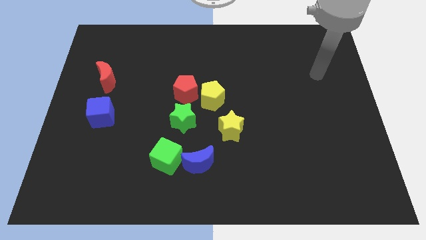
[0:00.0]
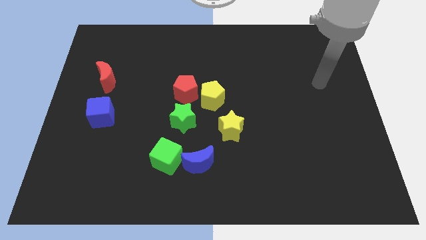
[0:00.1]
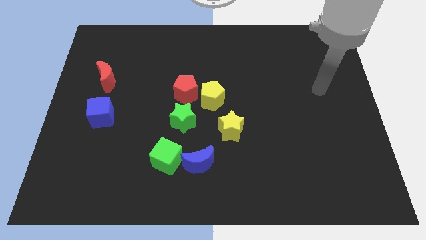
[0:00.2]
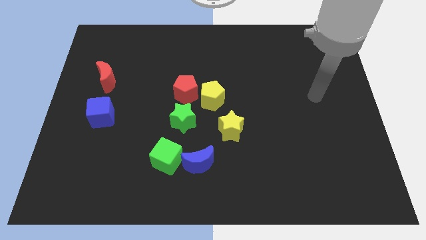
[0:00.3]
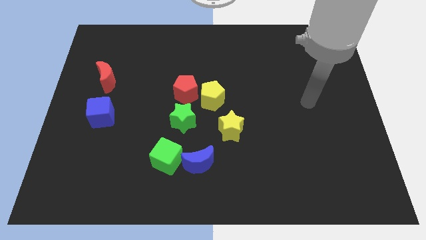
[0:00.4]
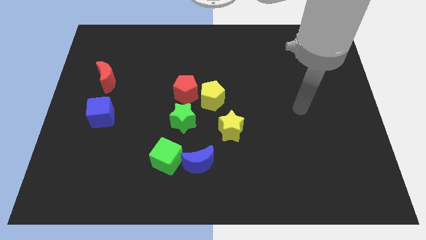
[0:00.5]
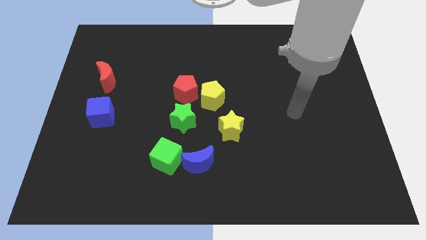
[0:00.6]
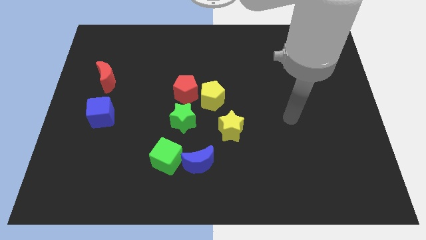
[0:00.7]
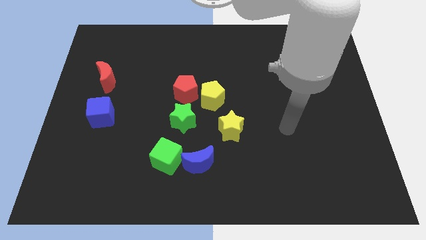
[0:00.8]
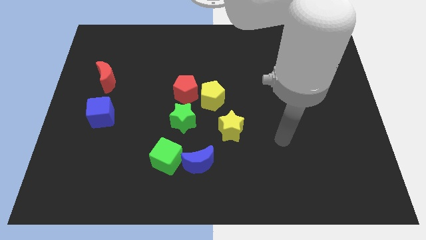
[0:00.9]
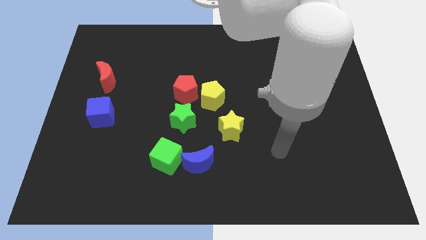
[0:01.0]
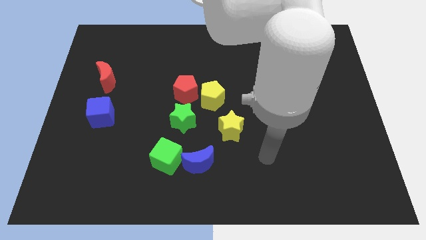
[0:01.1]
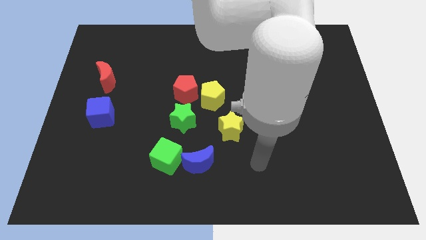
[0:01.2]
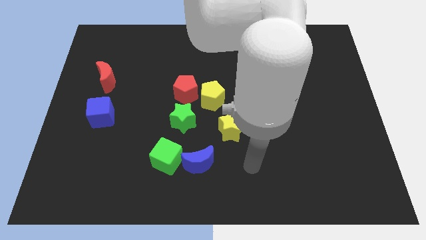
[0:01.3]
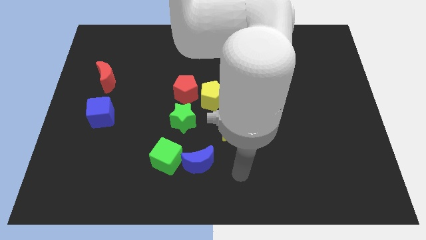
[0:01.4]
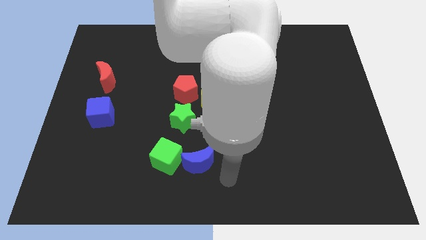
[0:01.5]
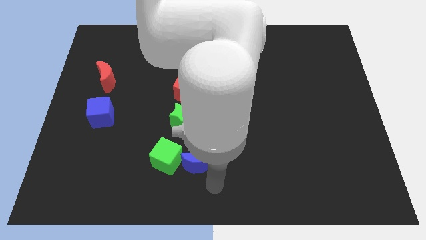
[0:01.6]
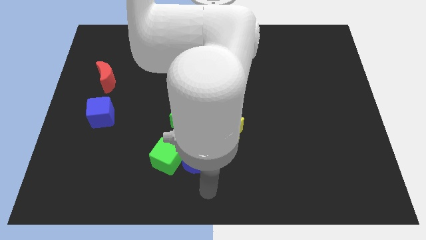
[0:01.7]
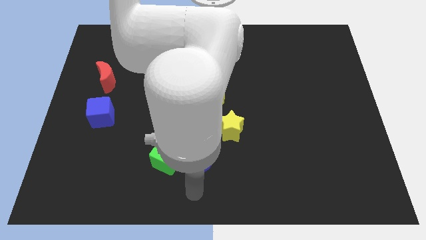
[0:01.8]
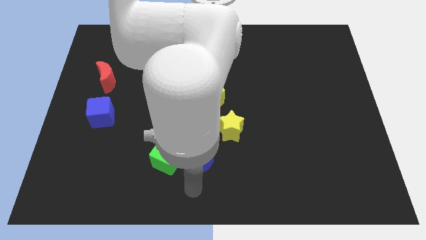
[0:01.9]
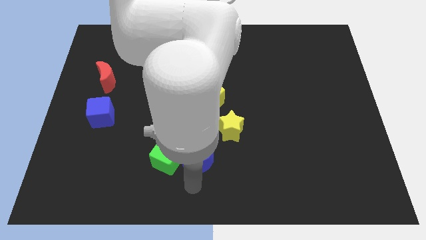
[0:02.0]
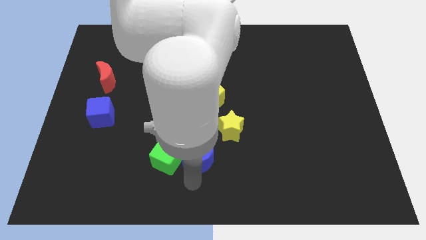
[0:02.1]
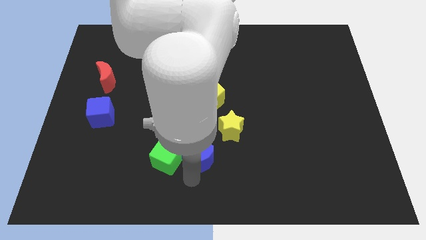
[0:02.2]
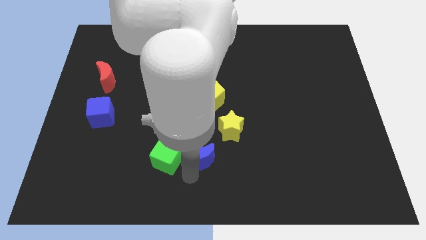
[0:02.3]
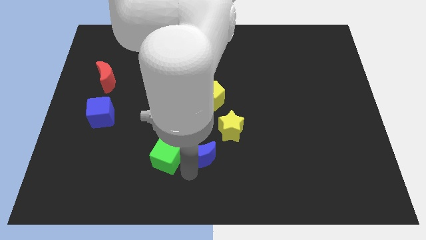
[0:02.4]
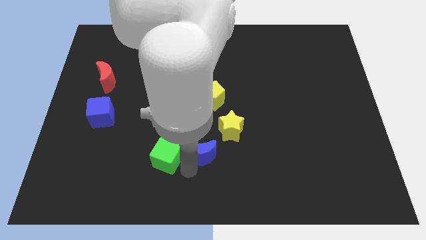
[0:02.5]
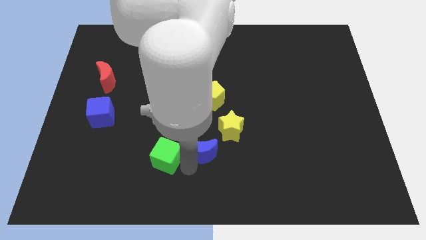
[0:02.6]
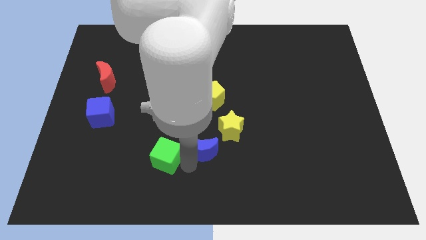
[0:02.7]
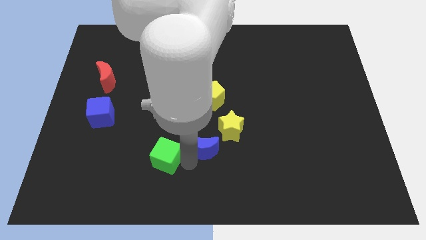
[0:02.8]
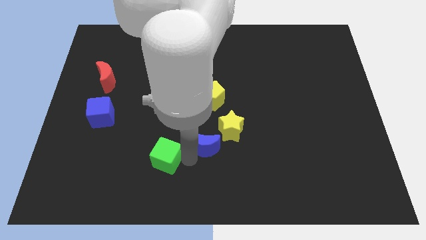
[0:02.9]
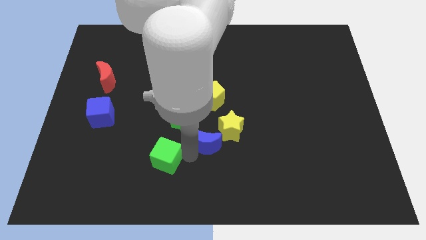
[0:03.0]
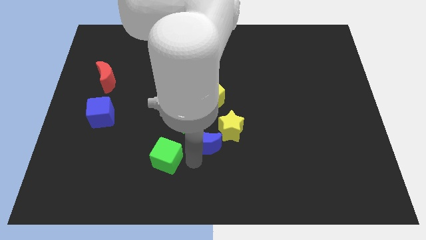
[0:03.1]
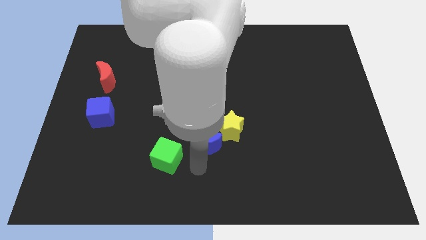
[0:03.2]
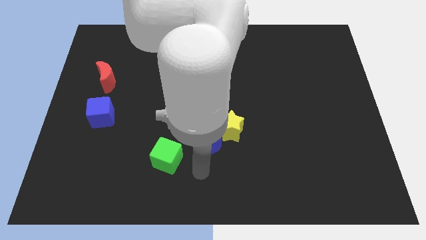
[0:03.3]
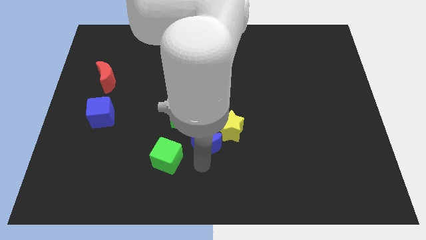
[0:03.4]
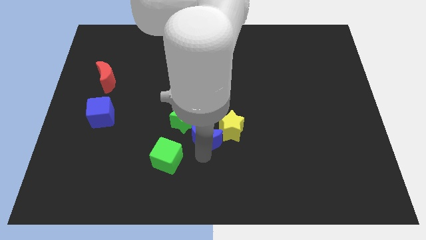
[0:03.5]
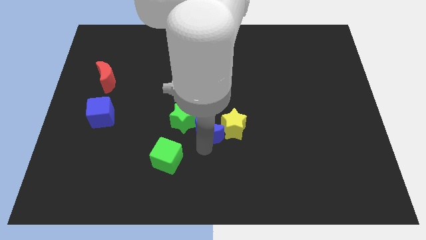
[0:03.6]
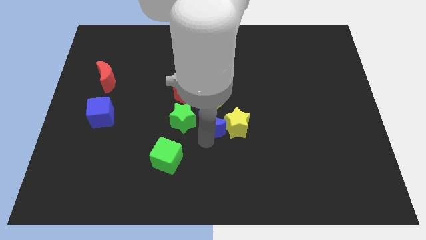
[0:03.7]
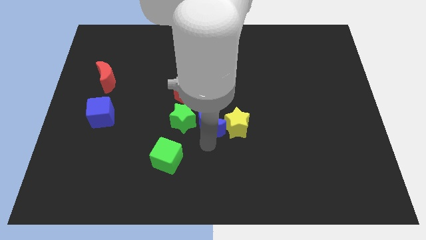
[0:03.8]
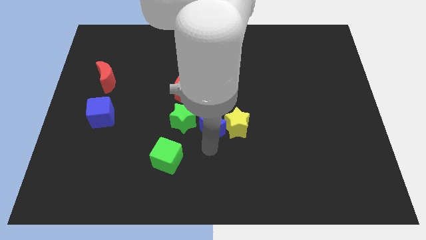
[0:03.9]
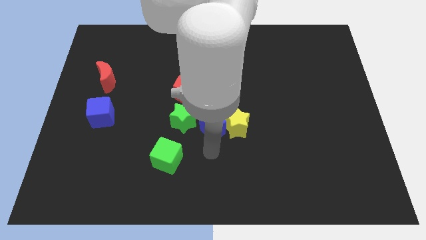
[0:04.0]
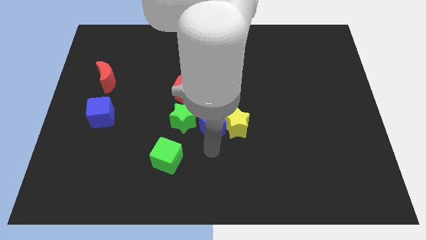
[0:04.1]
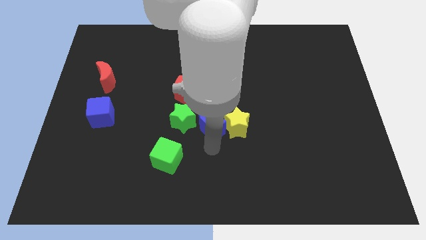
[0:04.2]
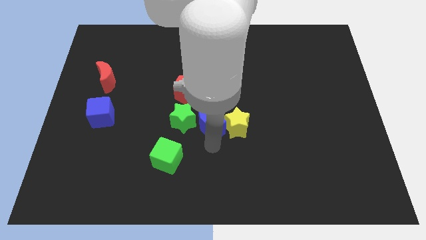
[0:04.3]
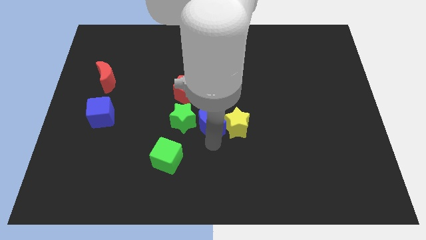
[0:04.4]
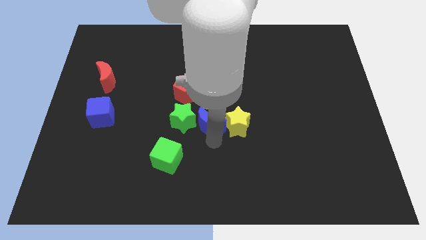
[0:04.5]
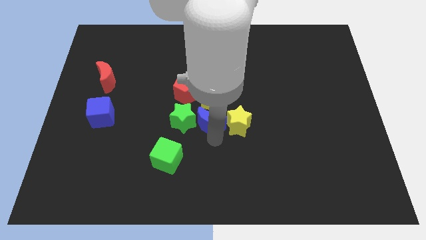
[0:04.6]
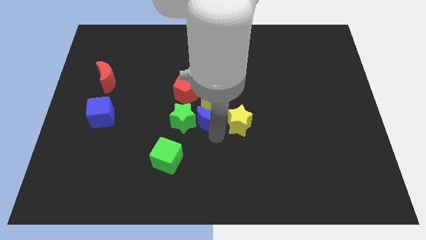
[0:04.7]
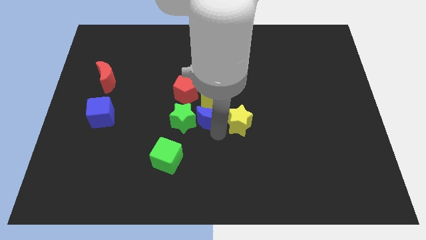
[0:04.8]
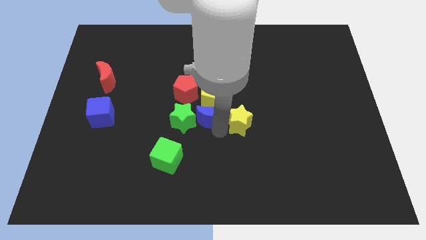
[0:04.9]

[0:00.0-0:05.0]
push the blue moon next to the yellow pentagon

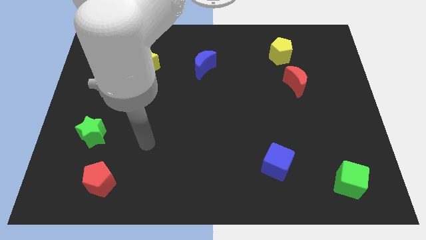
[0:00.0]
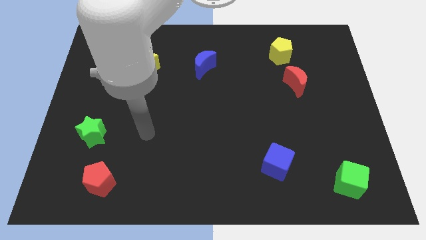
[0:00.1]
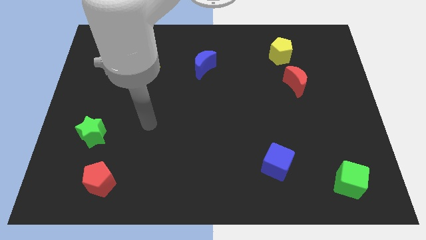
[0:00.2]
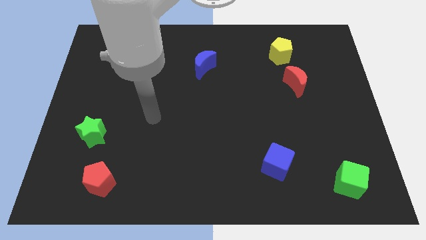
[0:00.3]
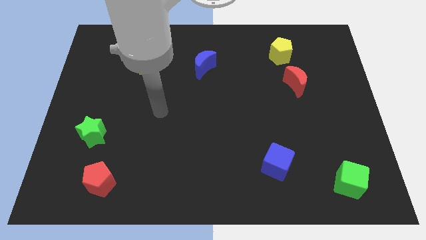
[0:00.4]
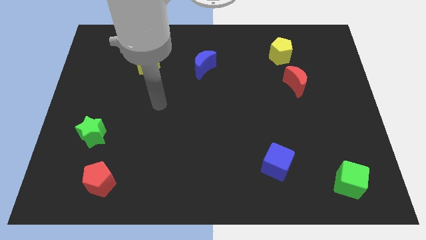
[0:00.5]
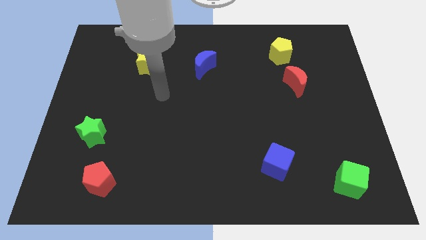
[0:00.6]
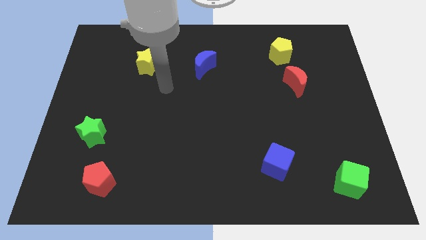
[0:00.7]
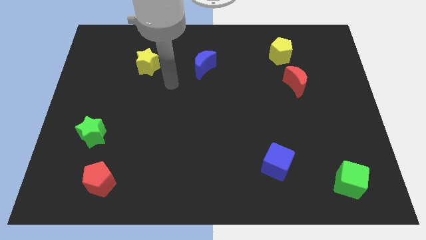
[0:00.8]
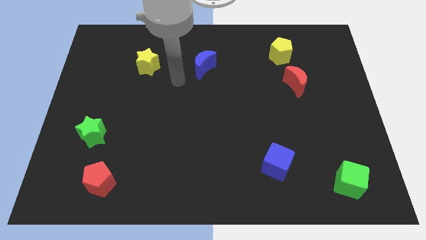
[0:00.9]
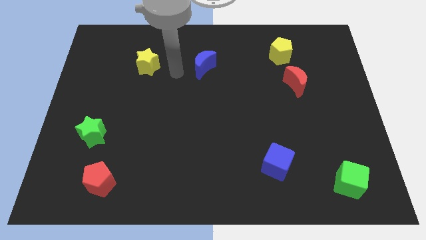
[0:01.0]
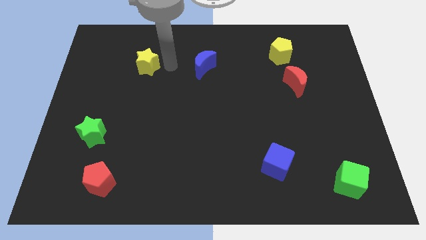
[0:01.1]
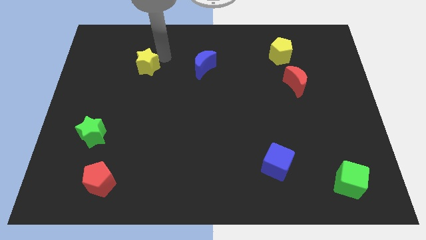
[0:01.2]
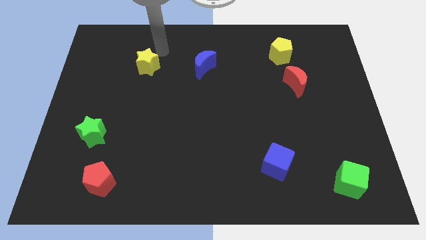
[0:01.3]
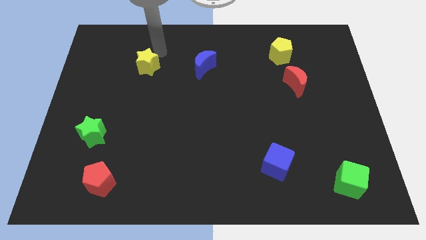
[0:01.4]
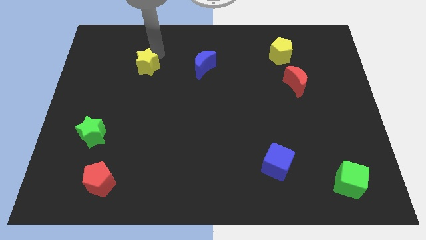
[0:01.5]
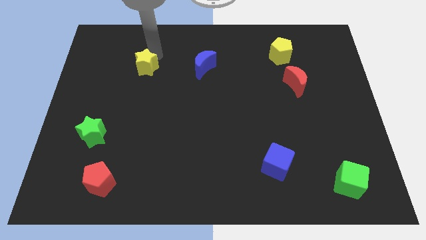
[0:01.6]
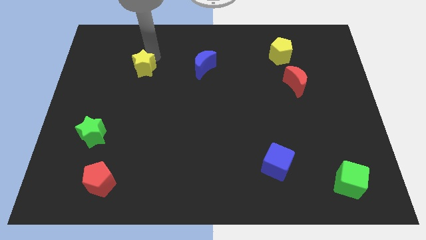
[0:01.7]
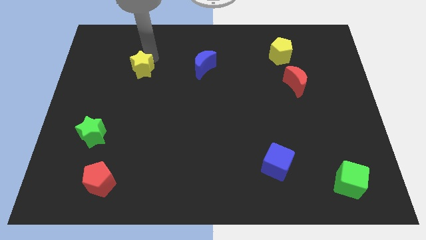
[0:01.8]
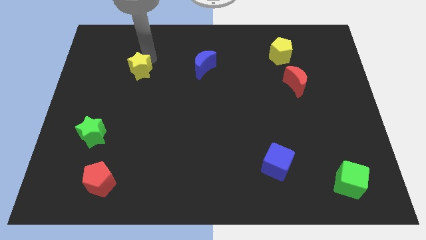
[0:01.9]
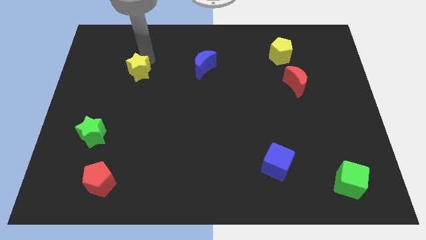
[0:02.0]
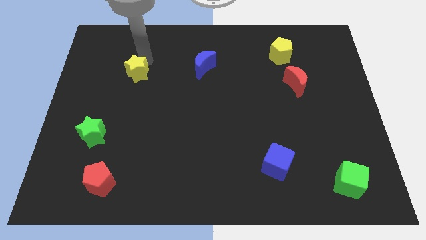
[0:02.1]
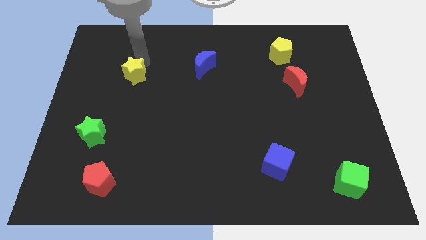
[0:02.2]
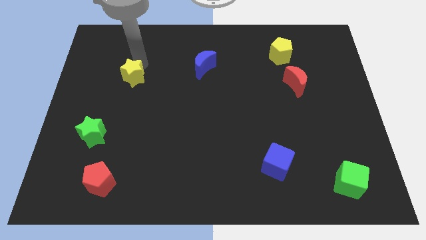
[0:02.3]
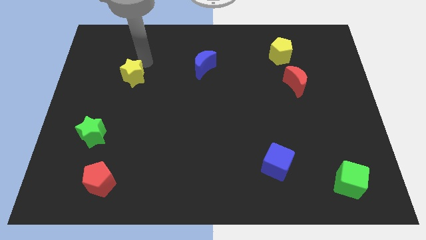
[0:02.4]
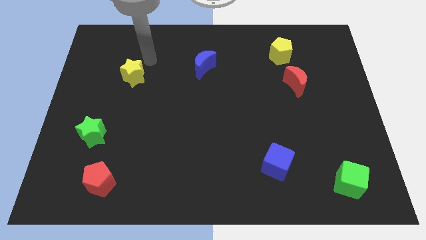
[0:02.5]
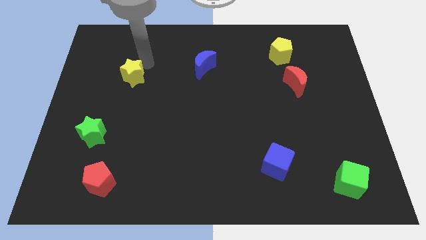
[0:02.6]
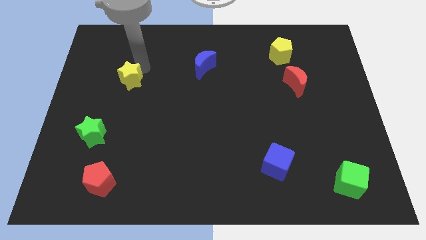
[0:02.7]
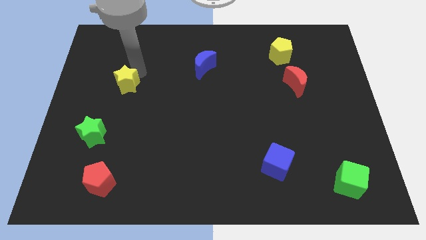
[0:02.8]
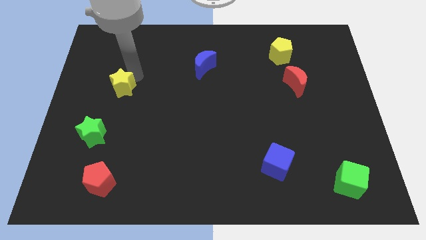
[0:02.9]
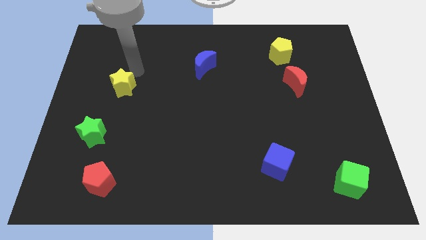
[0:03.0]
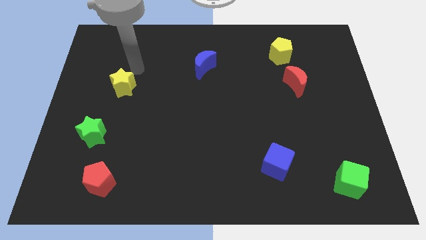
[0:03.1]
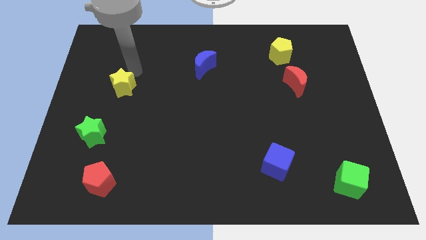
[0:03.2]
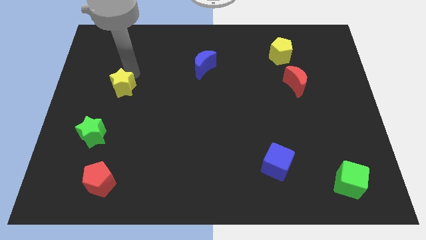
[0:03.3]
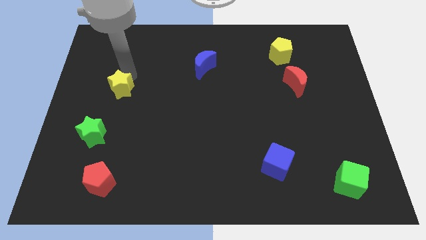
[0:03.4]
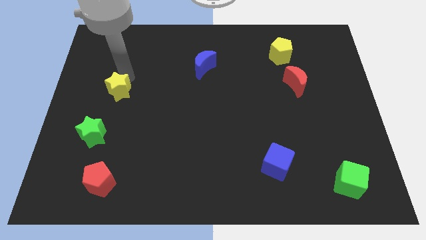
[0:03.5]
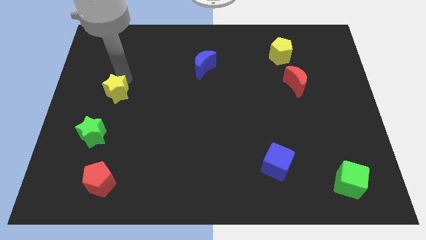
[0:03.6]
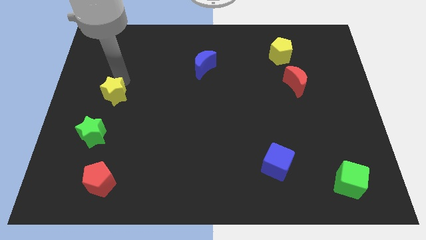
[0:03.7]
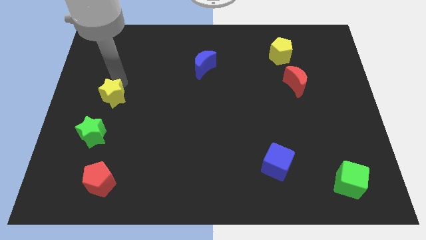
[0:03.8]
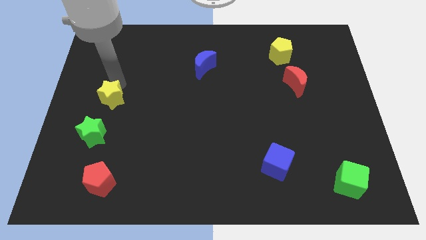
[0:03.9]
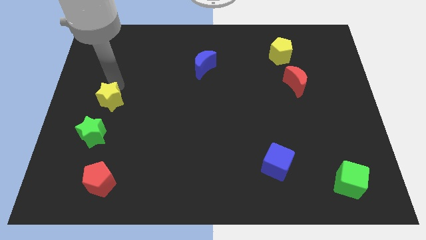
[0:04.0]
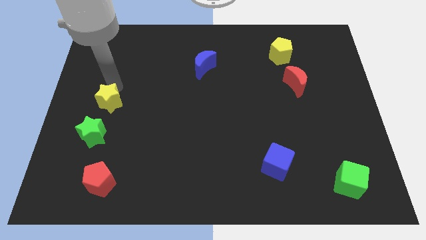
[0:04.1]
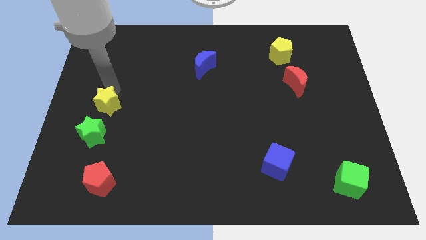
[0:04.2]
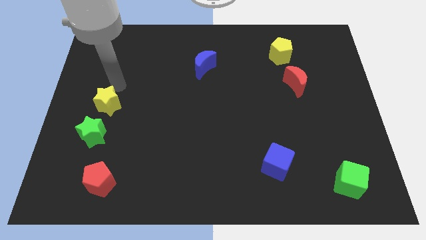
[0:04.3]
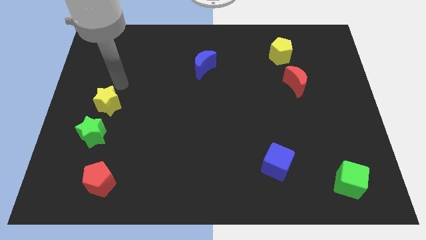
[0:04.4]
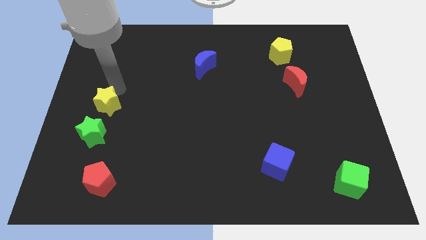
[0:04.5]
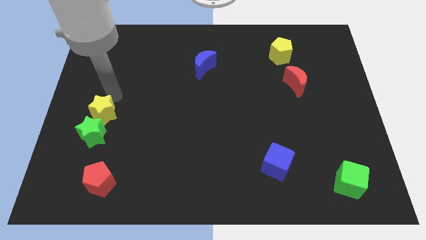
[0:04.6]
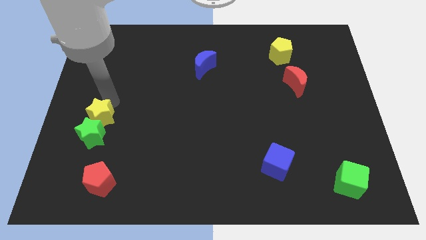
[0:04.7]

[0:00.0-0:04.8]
move the yellow star next to the green star
